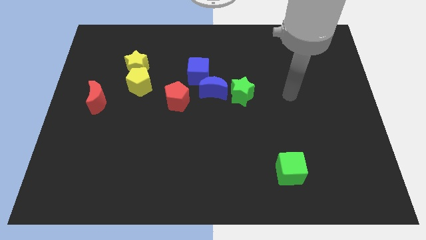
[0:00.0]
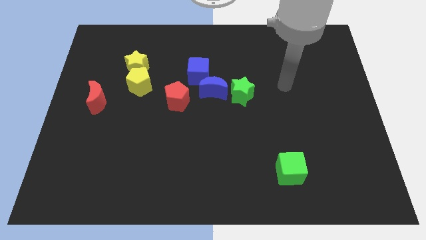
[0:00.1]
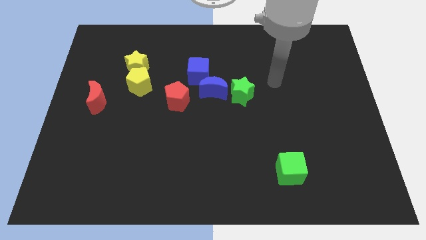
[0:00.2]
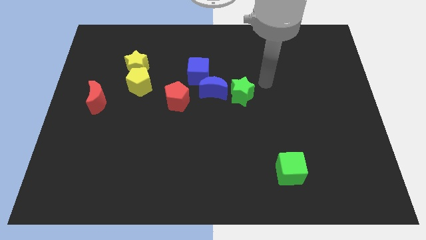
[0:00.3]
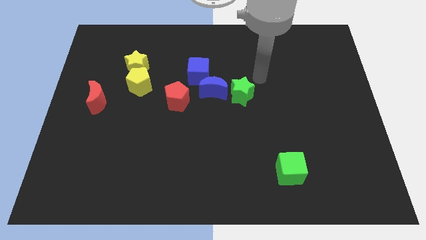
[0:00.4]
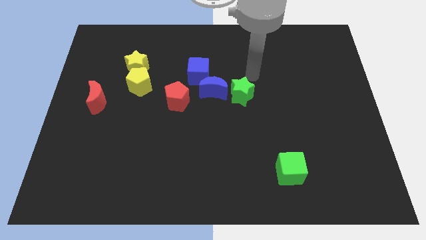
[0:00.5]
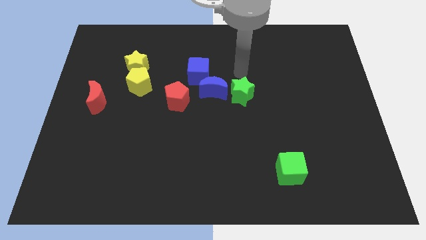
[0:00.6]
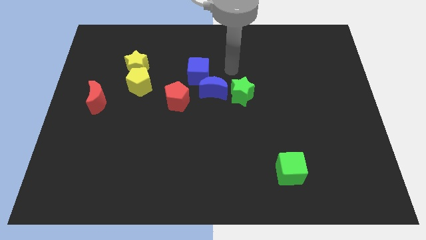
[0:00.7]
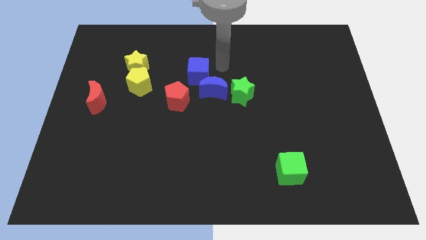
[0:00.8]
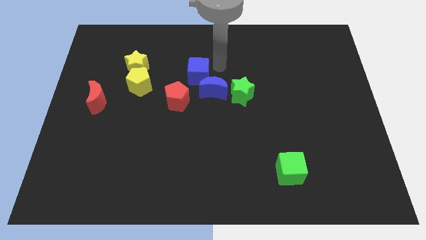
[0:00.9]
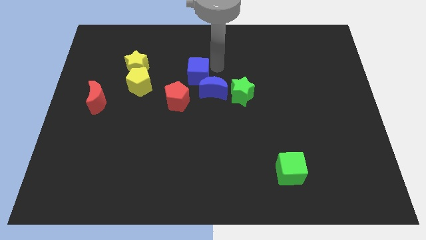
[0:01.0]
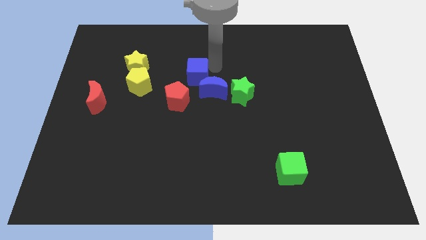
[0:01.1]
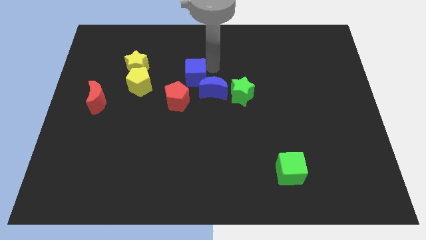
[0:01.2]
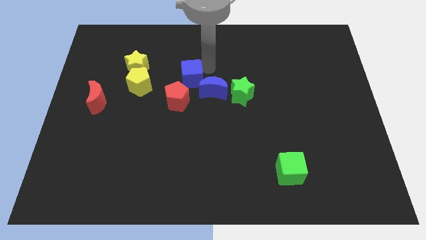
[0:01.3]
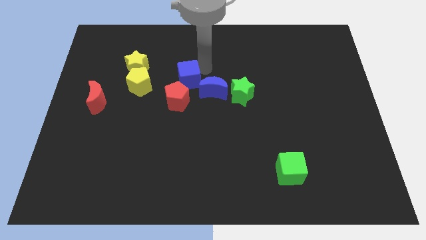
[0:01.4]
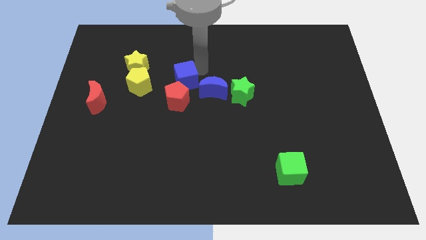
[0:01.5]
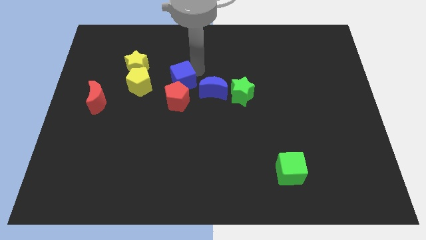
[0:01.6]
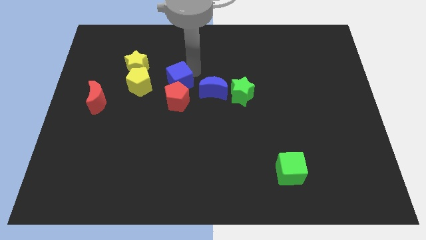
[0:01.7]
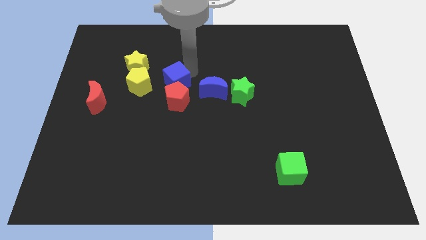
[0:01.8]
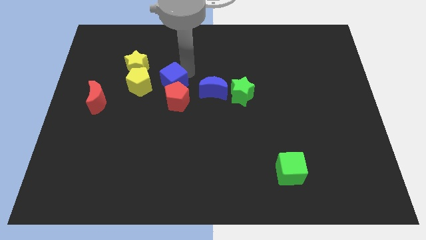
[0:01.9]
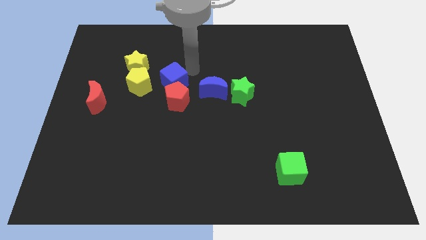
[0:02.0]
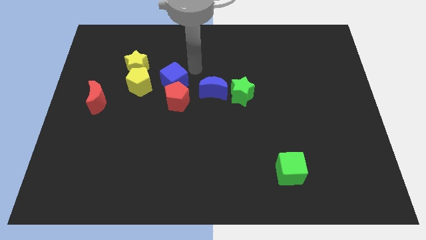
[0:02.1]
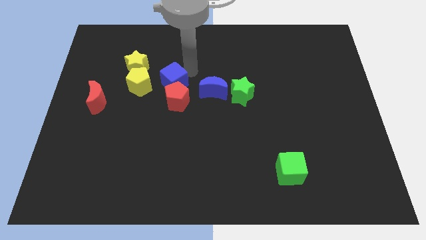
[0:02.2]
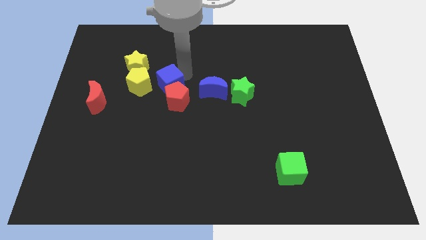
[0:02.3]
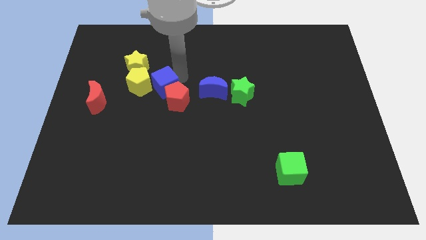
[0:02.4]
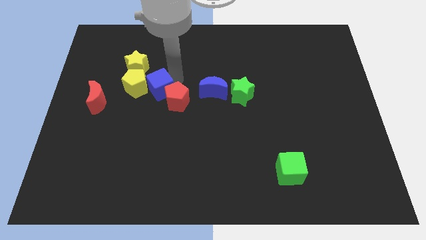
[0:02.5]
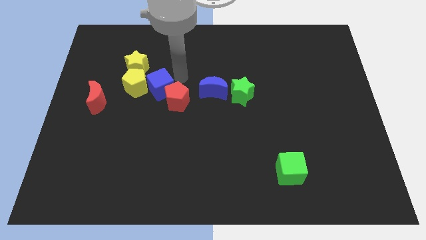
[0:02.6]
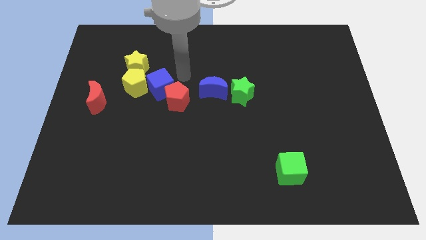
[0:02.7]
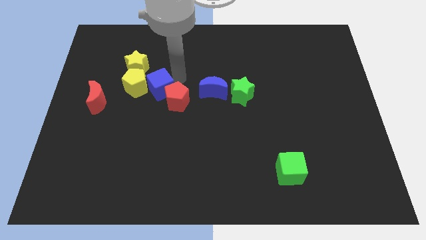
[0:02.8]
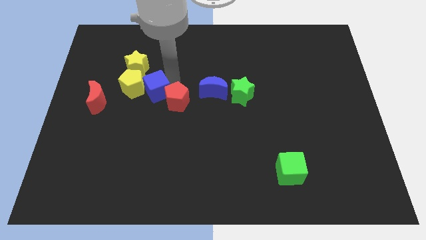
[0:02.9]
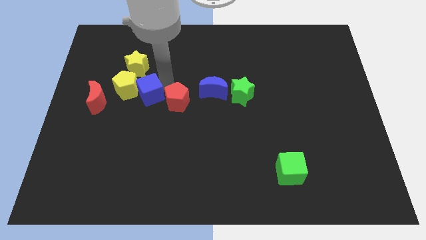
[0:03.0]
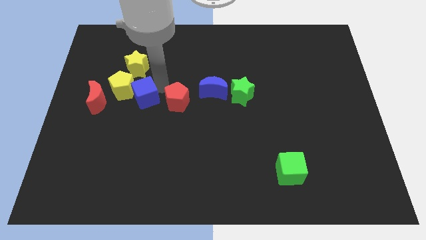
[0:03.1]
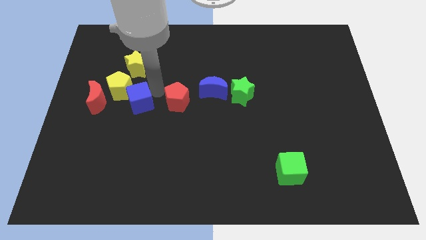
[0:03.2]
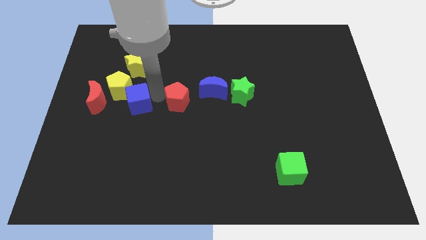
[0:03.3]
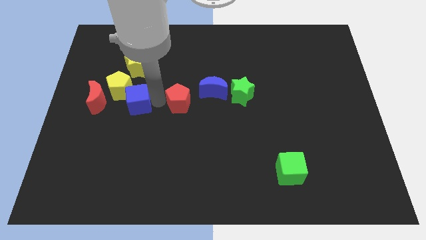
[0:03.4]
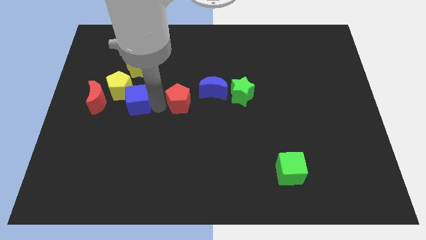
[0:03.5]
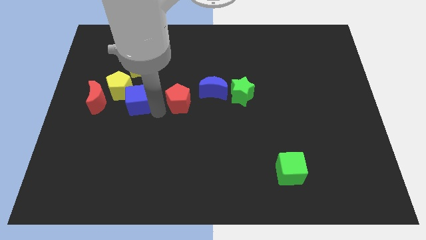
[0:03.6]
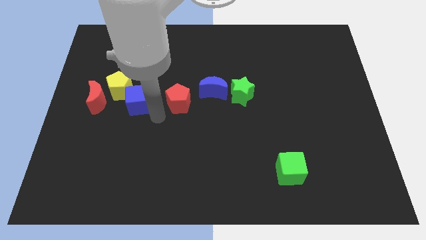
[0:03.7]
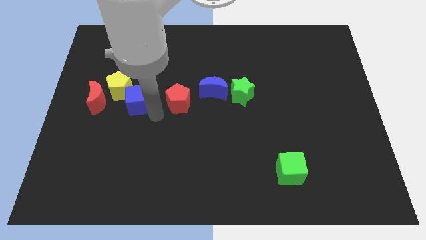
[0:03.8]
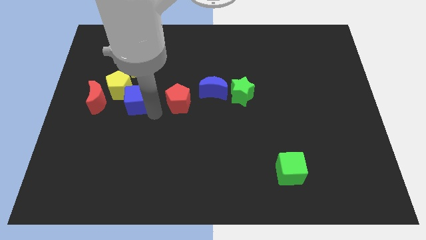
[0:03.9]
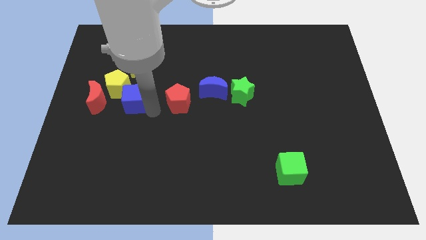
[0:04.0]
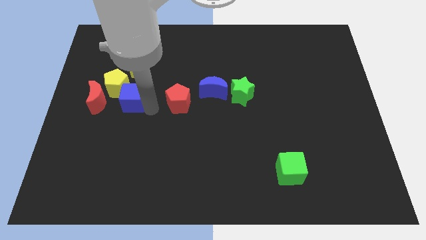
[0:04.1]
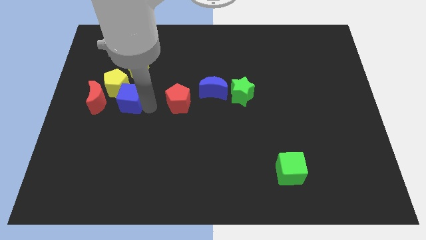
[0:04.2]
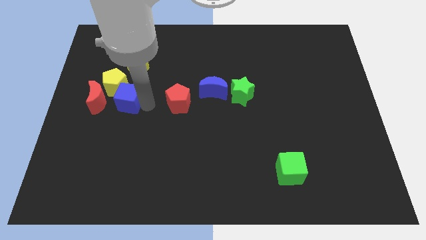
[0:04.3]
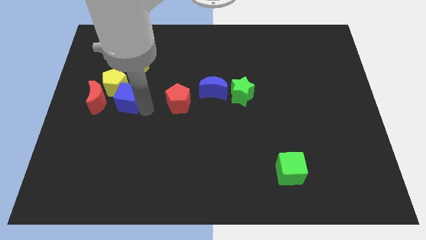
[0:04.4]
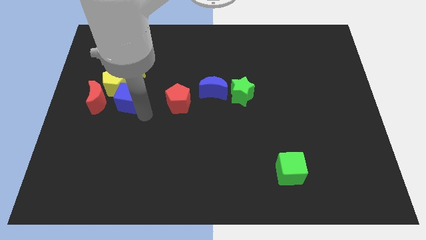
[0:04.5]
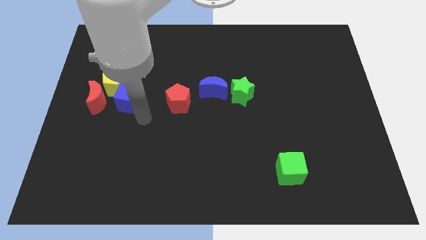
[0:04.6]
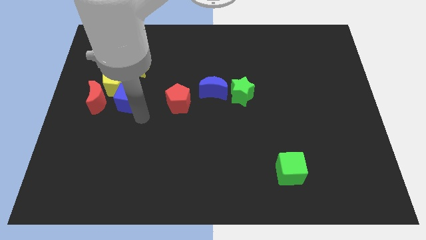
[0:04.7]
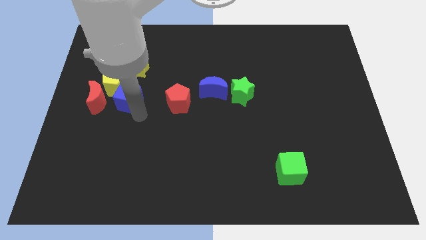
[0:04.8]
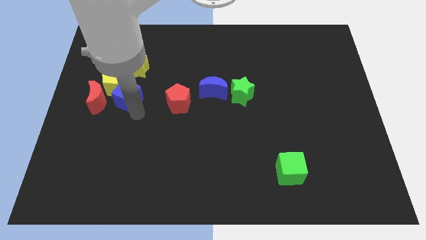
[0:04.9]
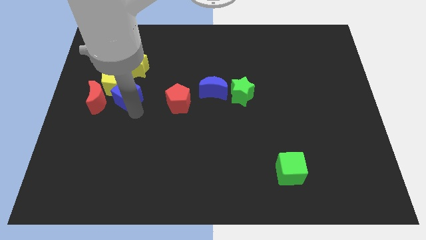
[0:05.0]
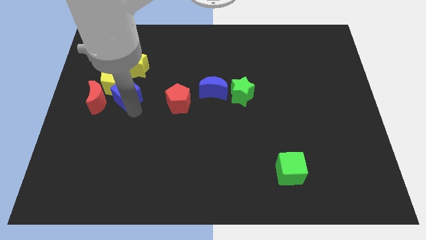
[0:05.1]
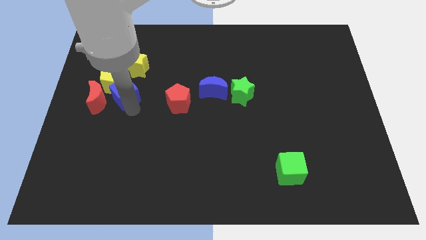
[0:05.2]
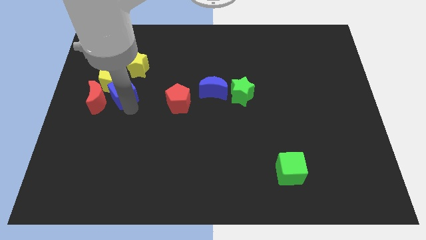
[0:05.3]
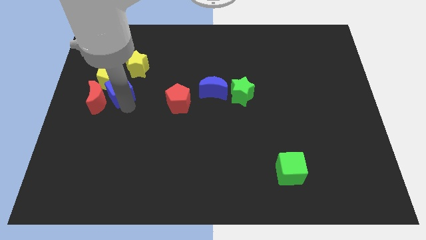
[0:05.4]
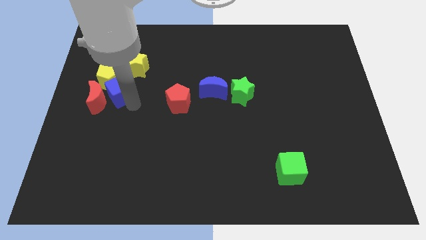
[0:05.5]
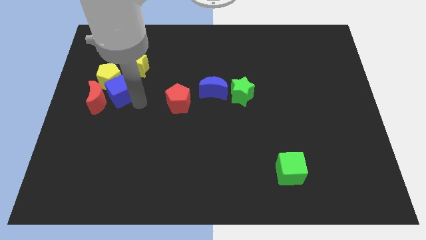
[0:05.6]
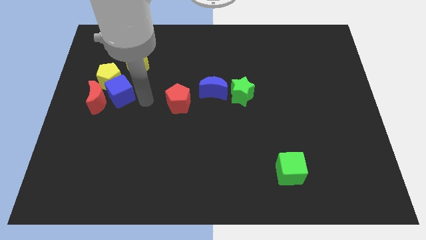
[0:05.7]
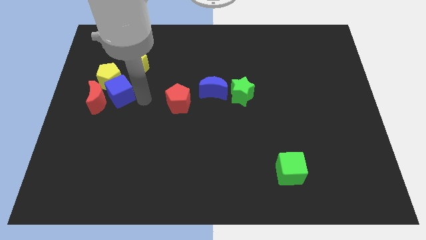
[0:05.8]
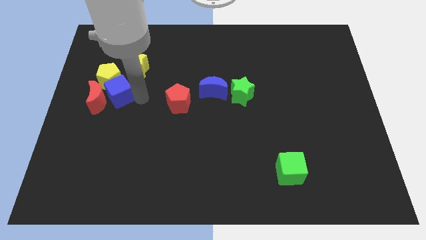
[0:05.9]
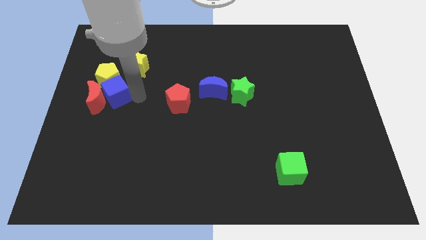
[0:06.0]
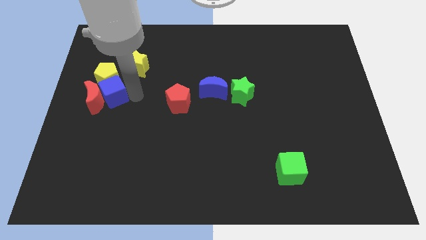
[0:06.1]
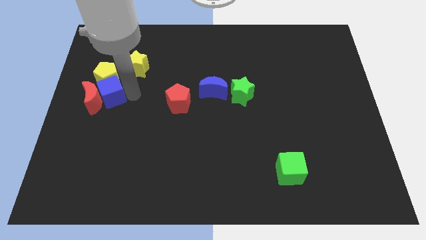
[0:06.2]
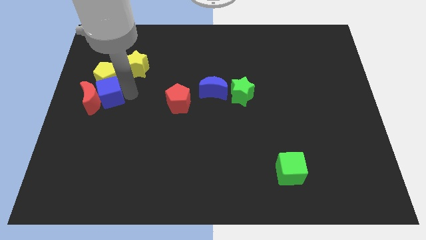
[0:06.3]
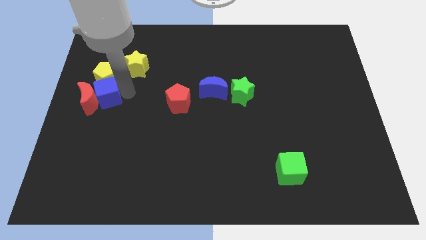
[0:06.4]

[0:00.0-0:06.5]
move the blue cube to the left side of the board

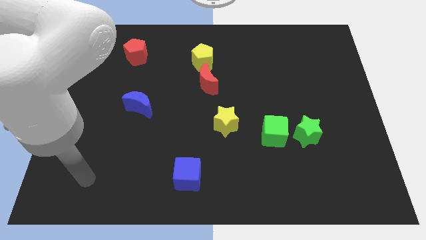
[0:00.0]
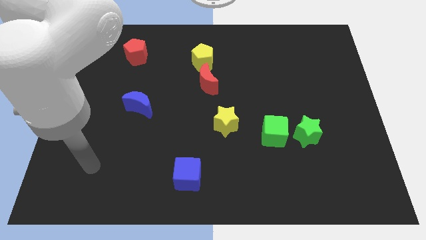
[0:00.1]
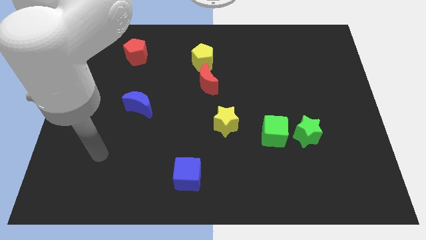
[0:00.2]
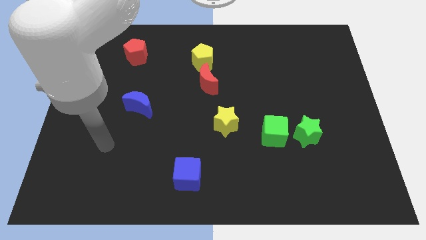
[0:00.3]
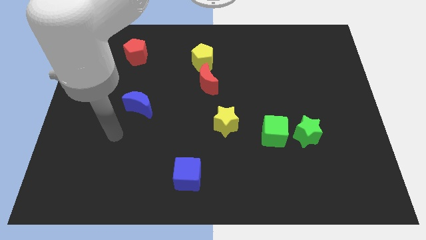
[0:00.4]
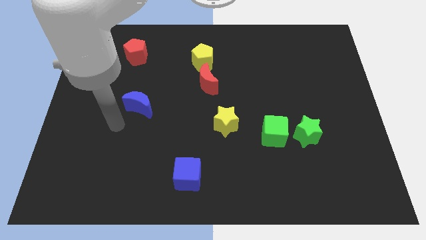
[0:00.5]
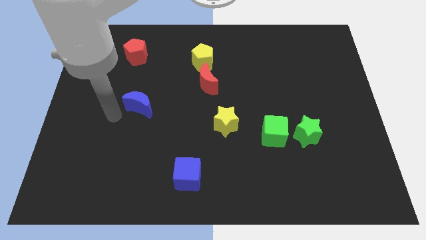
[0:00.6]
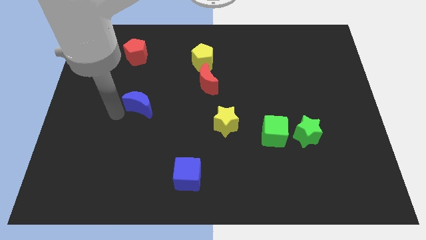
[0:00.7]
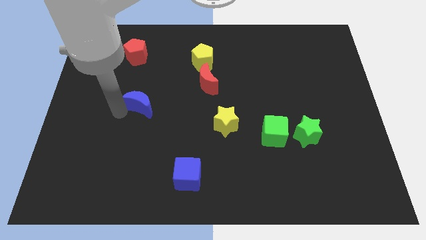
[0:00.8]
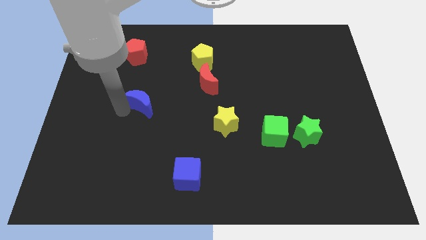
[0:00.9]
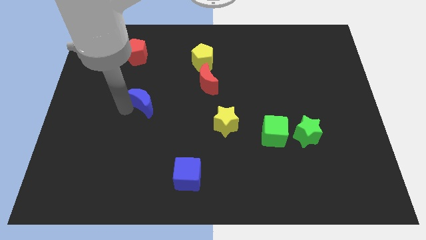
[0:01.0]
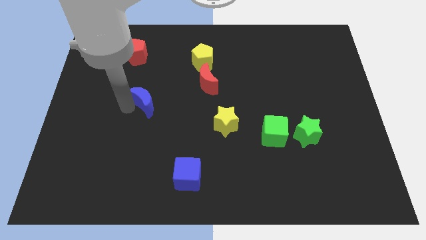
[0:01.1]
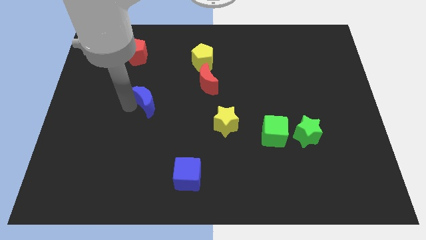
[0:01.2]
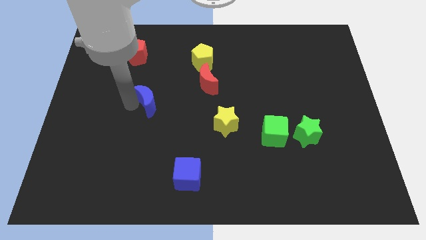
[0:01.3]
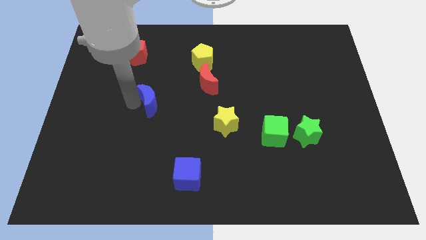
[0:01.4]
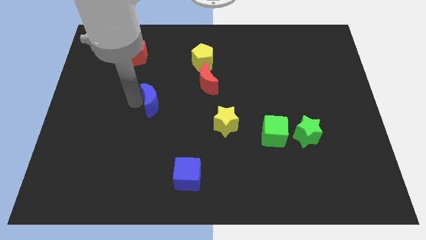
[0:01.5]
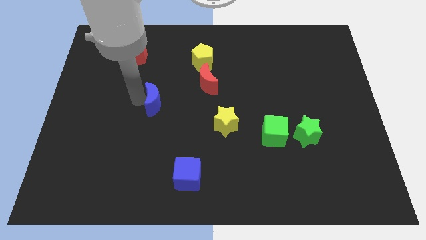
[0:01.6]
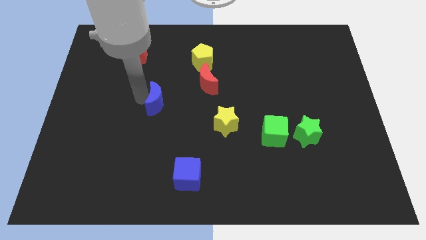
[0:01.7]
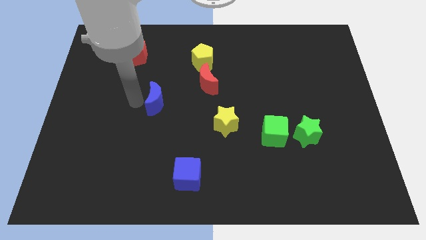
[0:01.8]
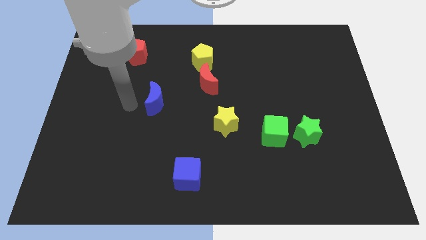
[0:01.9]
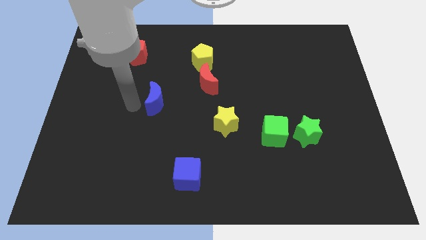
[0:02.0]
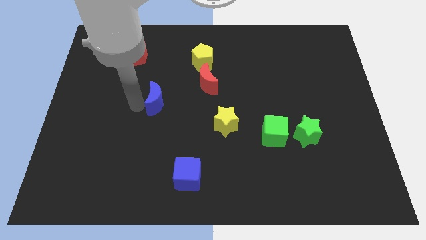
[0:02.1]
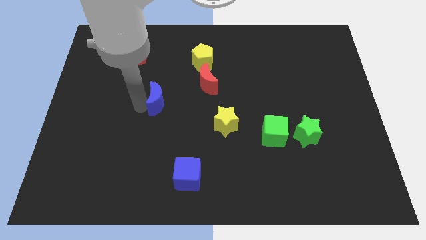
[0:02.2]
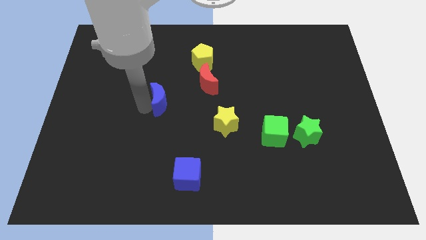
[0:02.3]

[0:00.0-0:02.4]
push the blue moon to the middle of the board
